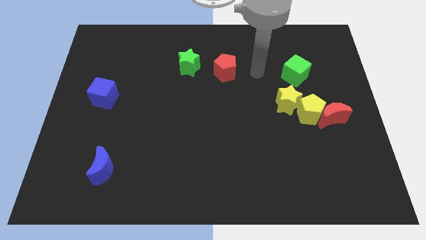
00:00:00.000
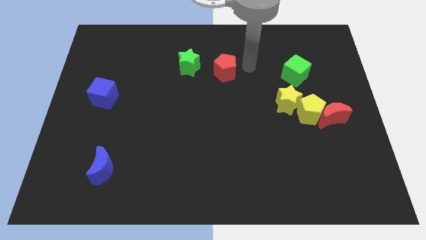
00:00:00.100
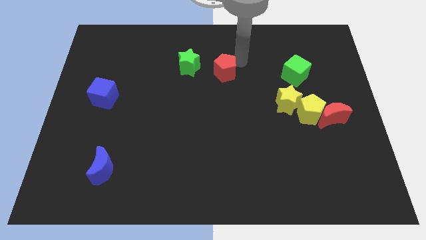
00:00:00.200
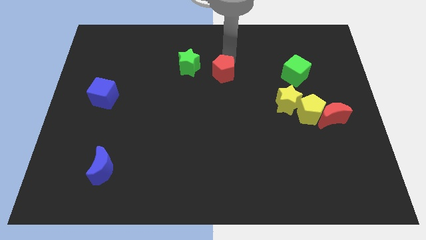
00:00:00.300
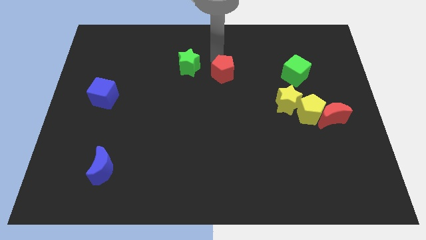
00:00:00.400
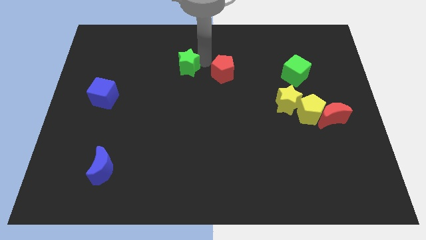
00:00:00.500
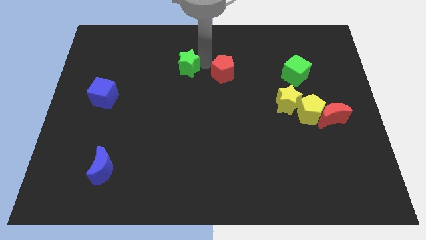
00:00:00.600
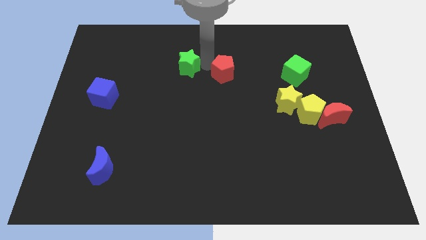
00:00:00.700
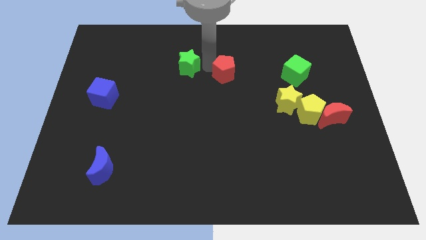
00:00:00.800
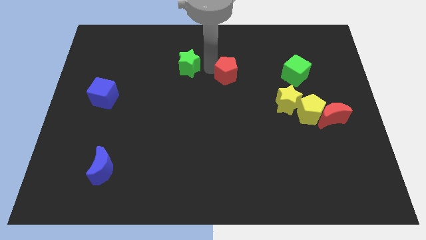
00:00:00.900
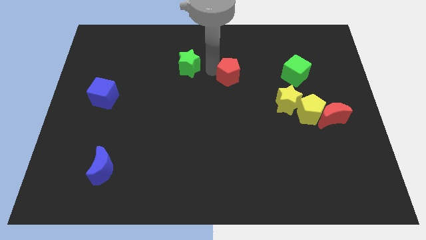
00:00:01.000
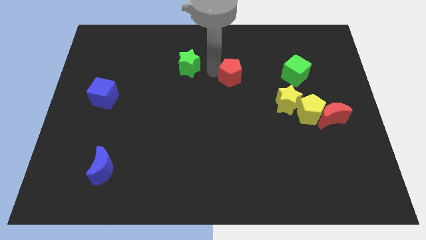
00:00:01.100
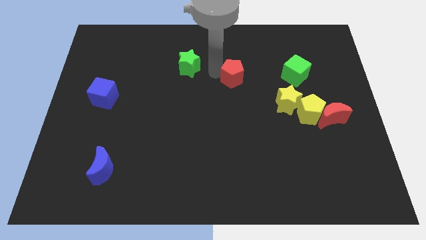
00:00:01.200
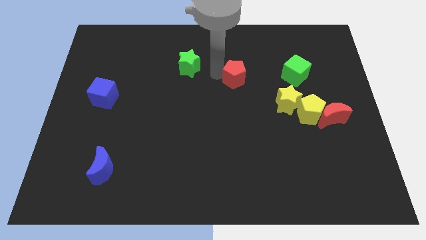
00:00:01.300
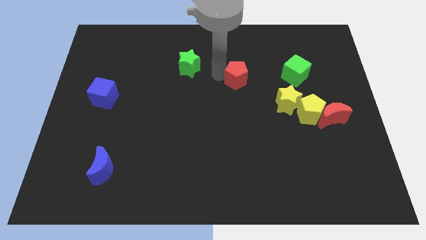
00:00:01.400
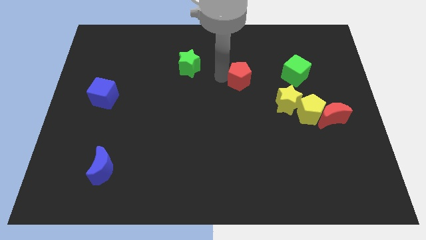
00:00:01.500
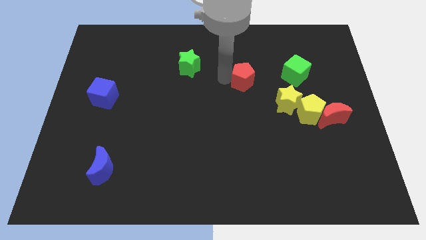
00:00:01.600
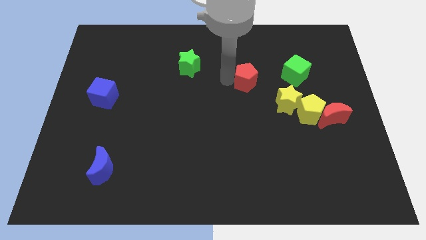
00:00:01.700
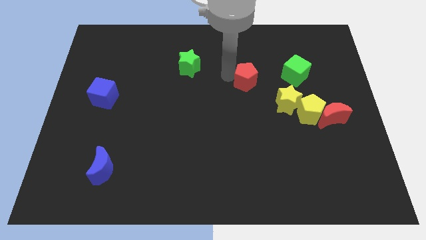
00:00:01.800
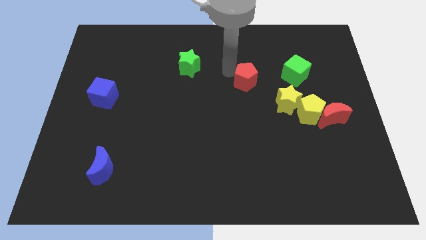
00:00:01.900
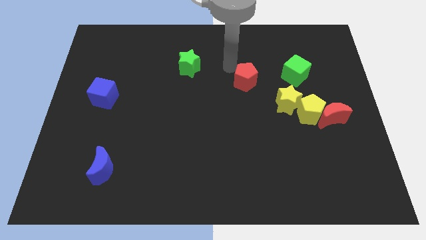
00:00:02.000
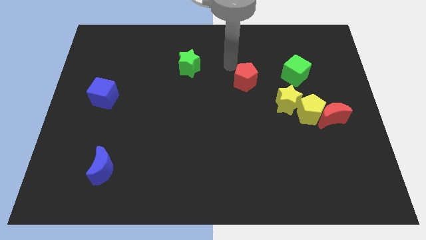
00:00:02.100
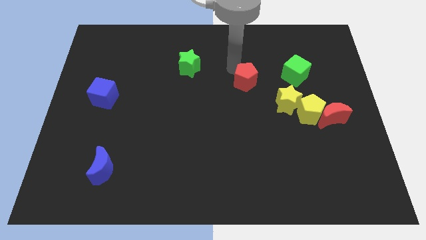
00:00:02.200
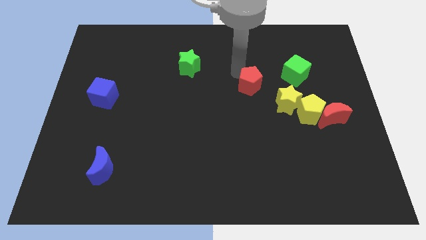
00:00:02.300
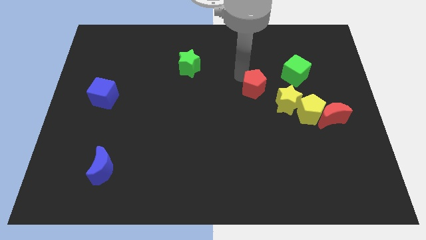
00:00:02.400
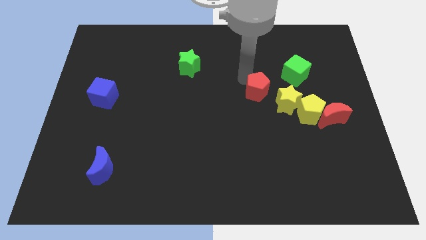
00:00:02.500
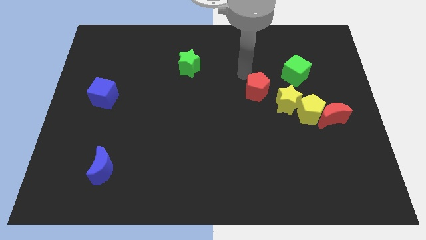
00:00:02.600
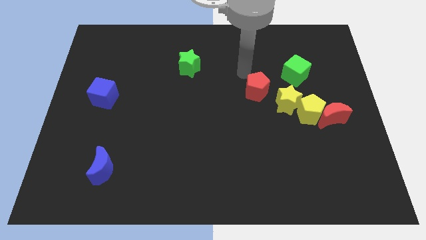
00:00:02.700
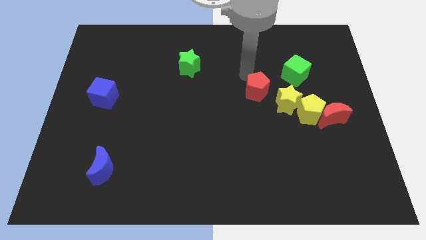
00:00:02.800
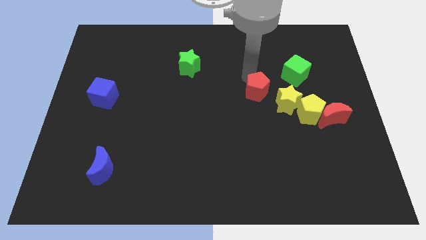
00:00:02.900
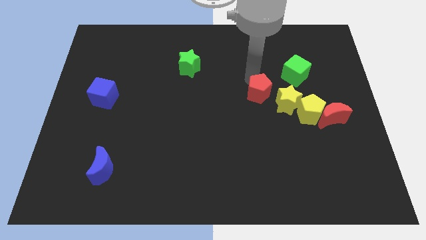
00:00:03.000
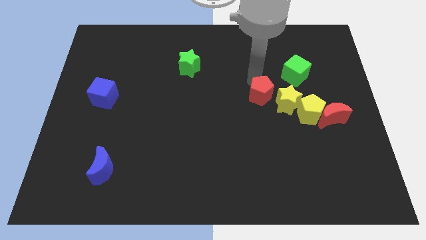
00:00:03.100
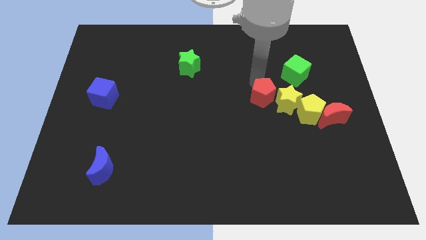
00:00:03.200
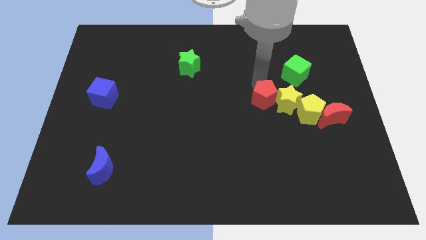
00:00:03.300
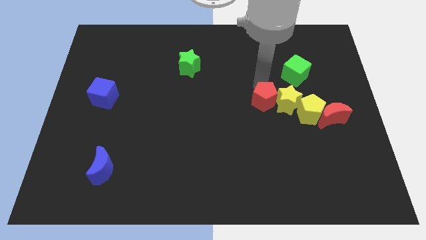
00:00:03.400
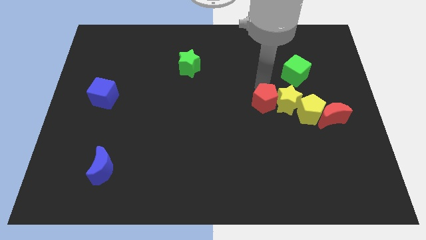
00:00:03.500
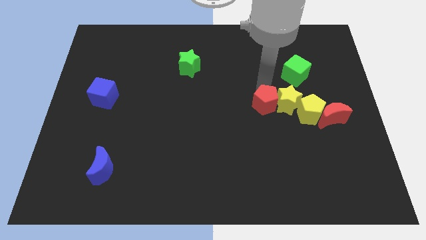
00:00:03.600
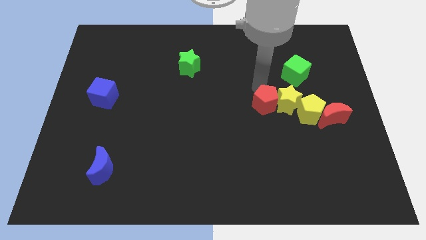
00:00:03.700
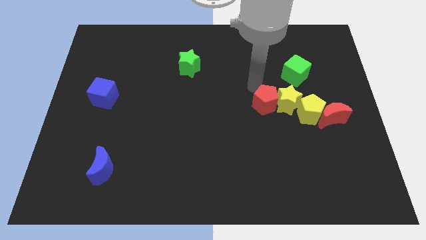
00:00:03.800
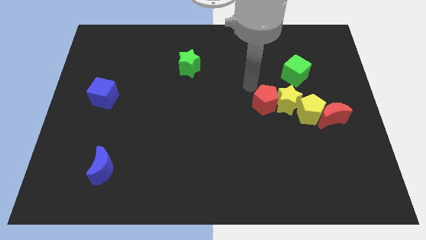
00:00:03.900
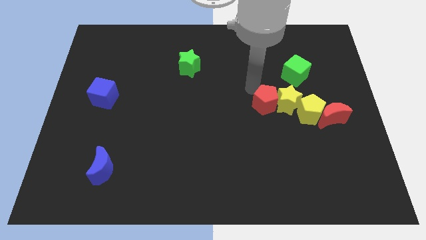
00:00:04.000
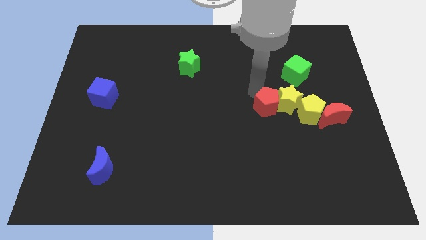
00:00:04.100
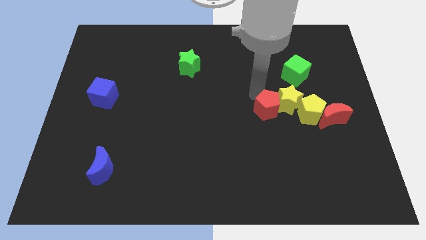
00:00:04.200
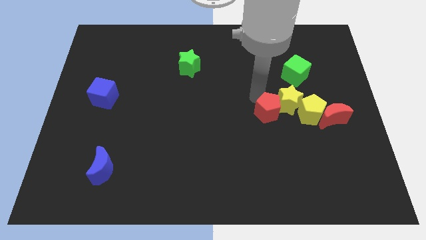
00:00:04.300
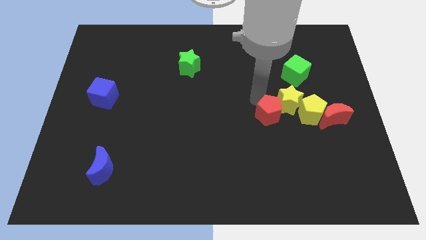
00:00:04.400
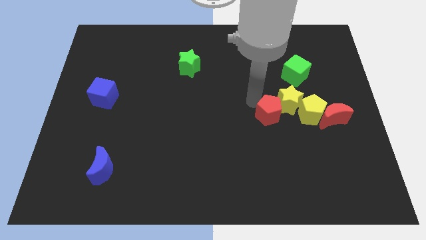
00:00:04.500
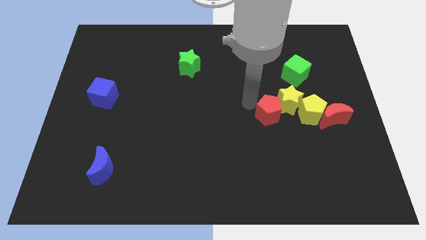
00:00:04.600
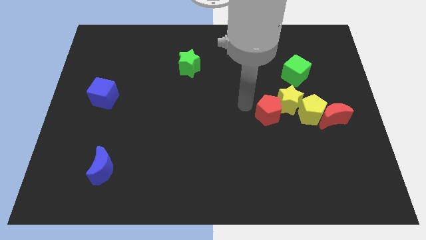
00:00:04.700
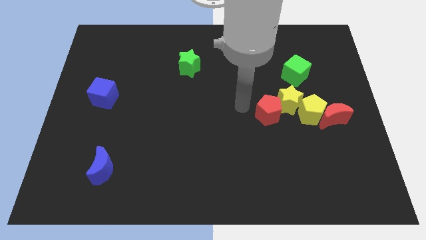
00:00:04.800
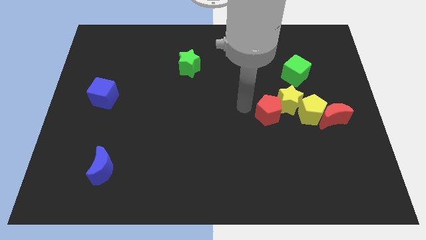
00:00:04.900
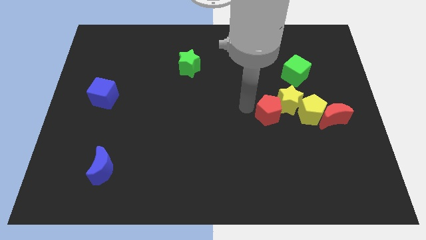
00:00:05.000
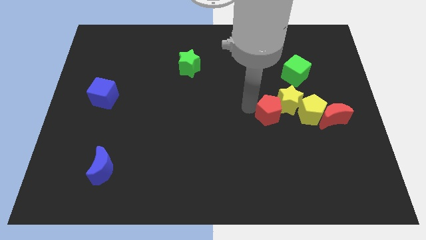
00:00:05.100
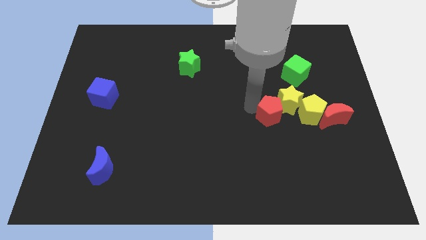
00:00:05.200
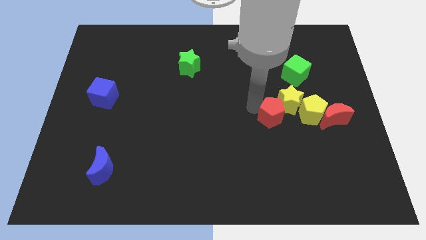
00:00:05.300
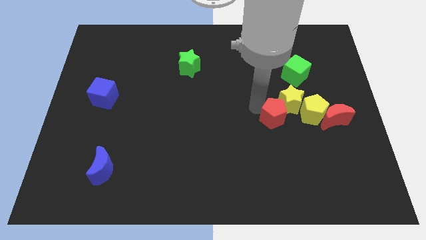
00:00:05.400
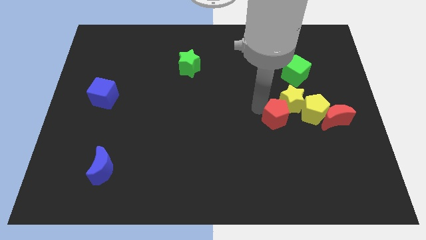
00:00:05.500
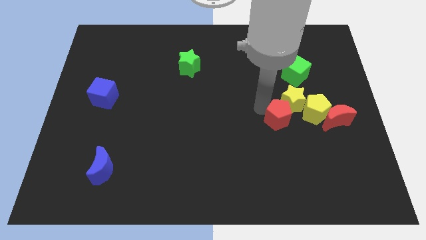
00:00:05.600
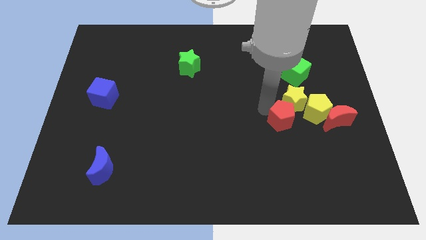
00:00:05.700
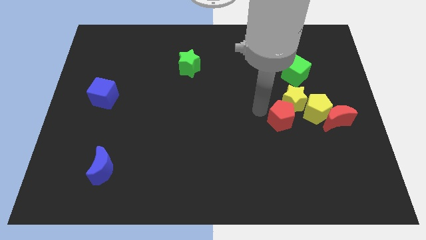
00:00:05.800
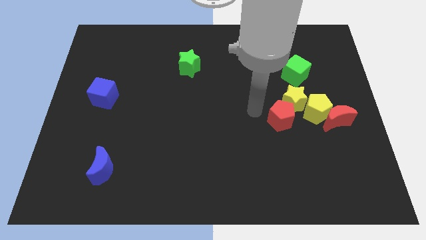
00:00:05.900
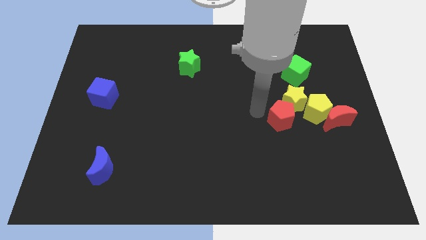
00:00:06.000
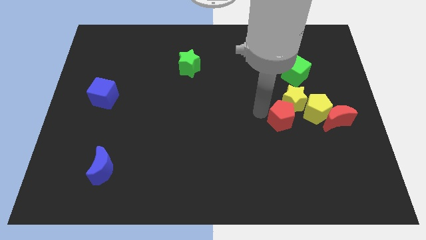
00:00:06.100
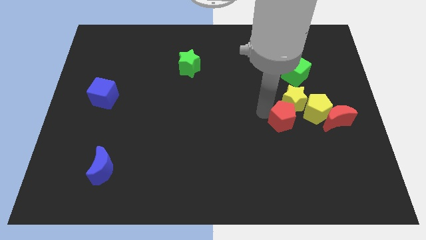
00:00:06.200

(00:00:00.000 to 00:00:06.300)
slide the red pentagon diagonally downwards and to the right

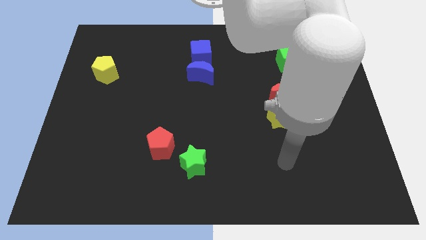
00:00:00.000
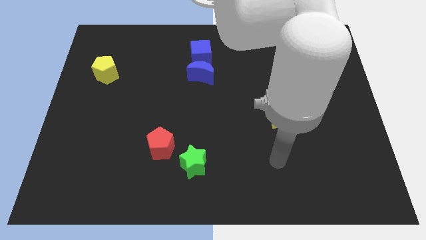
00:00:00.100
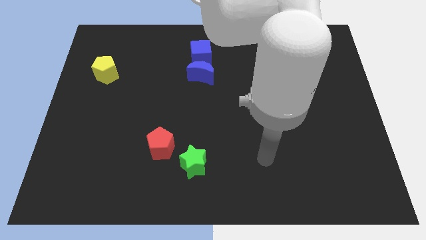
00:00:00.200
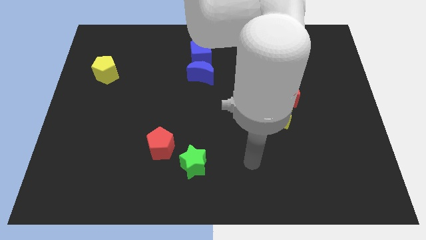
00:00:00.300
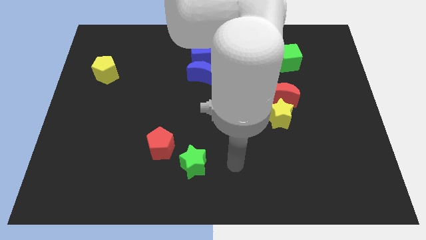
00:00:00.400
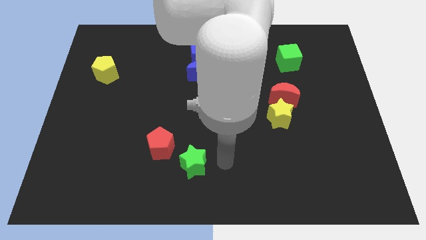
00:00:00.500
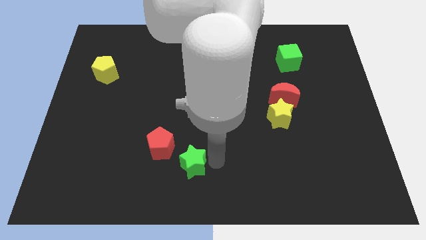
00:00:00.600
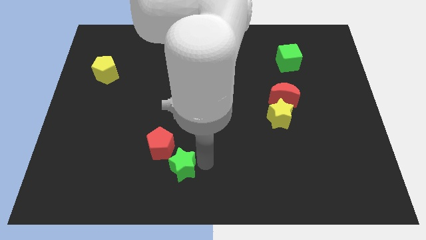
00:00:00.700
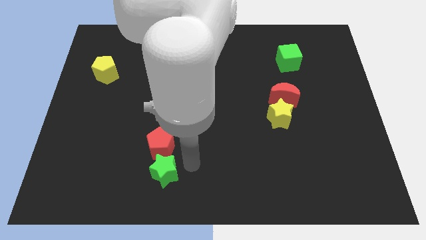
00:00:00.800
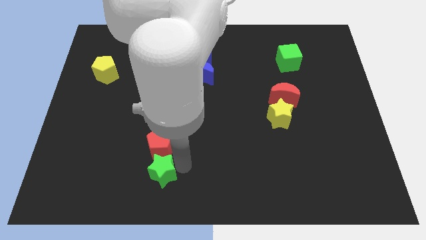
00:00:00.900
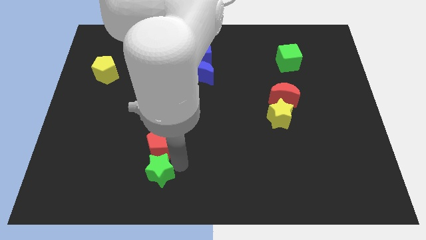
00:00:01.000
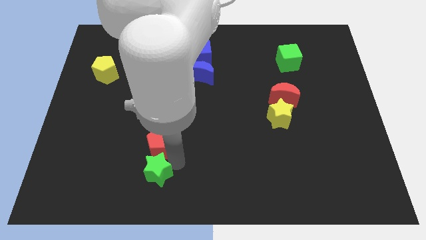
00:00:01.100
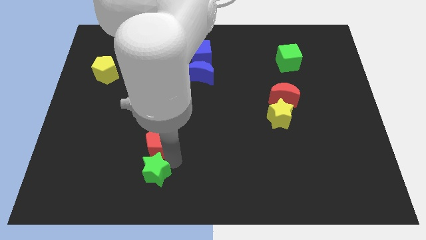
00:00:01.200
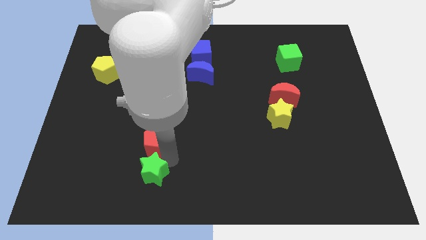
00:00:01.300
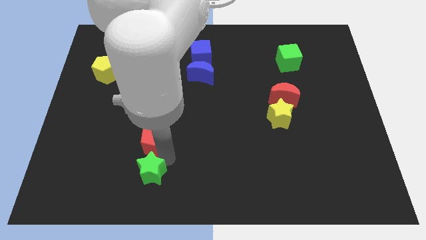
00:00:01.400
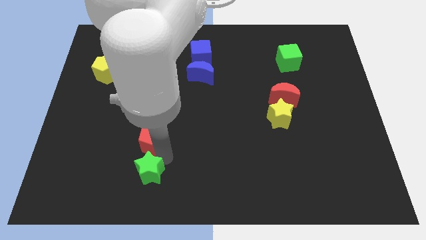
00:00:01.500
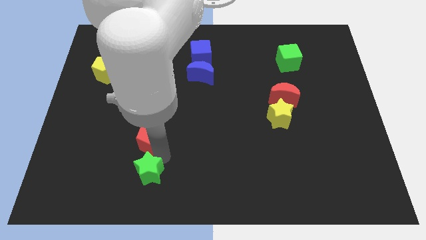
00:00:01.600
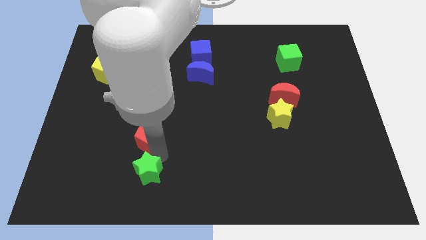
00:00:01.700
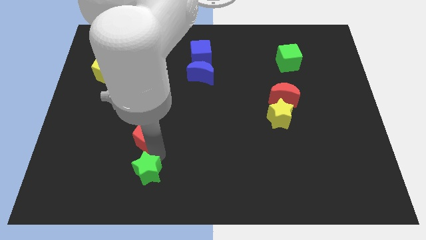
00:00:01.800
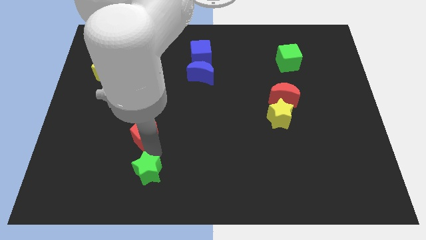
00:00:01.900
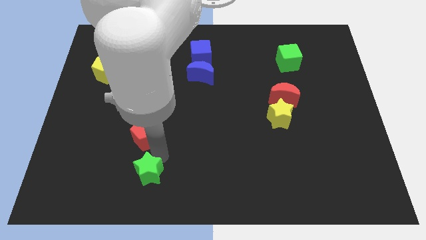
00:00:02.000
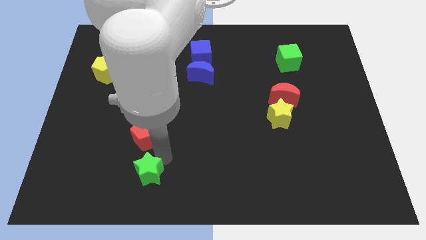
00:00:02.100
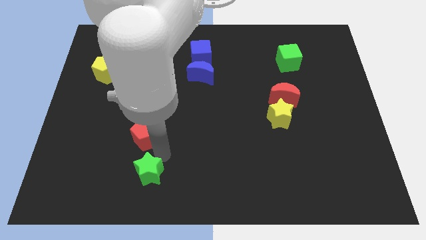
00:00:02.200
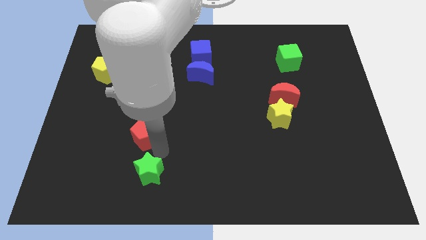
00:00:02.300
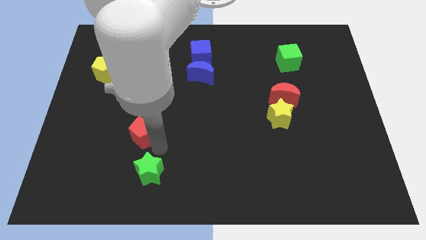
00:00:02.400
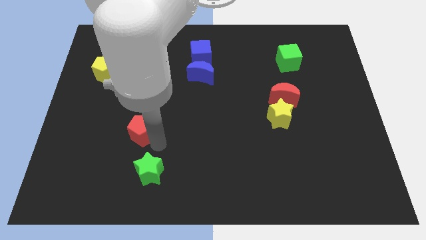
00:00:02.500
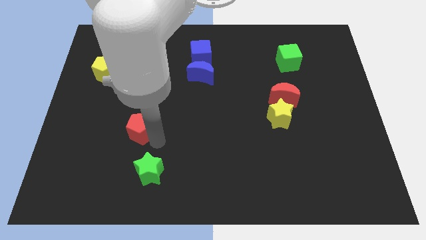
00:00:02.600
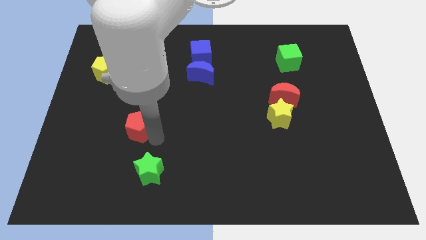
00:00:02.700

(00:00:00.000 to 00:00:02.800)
push the red pentagon a bit upwards and to the left diagonally
